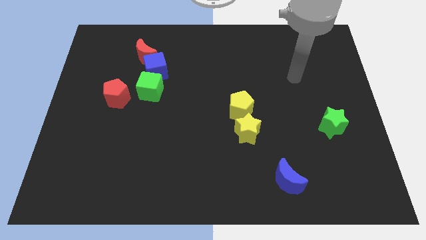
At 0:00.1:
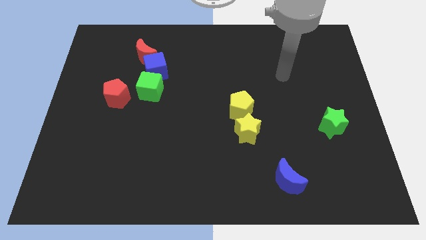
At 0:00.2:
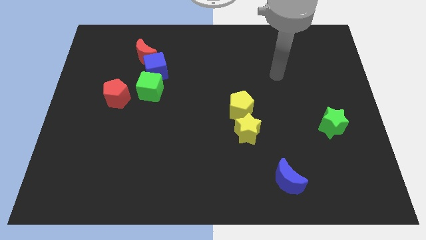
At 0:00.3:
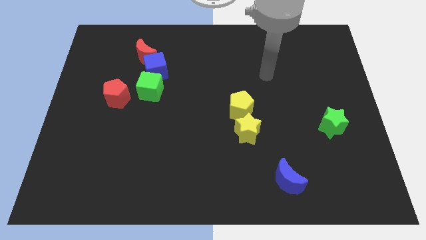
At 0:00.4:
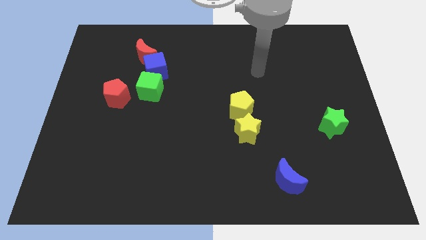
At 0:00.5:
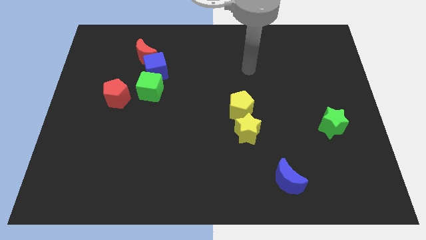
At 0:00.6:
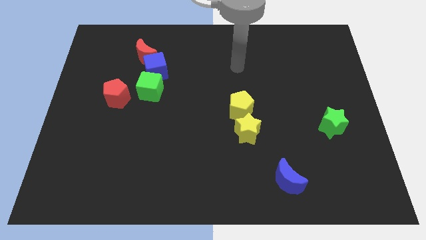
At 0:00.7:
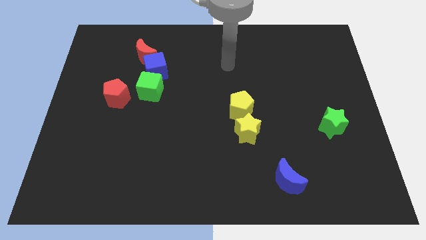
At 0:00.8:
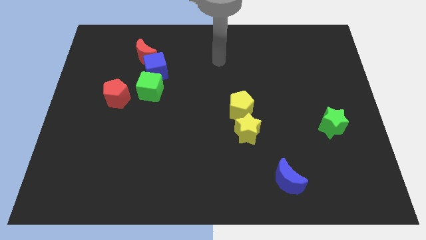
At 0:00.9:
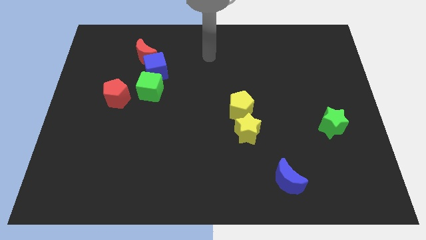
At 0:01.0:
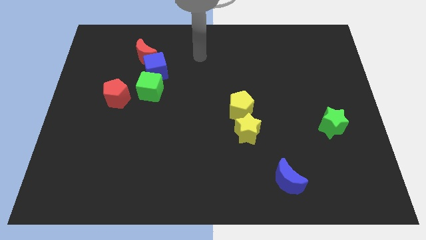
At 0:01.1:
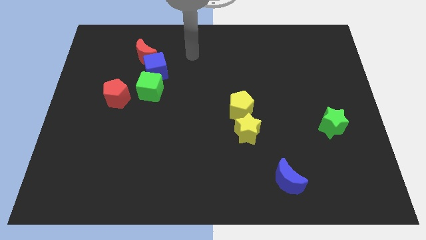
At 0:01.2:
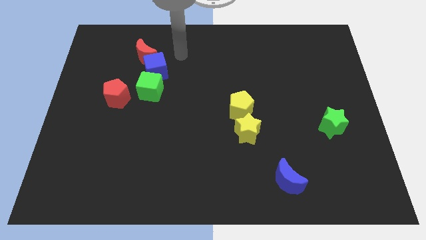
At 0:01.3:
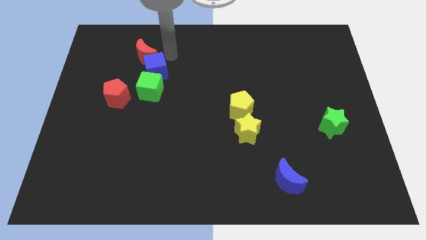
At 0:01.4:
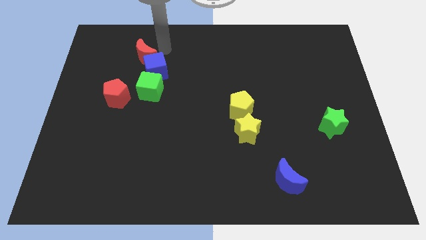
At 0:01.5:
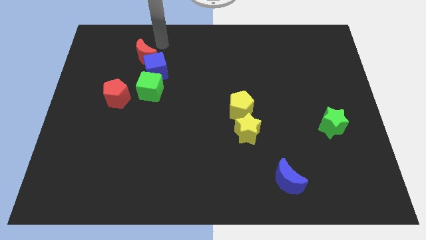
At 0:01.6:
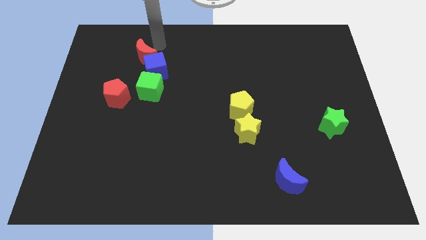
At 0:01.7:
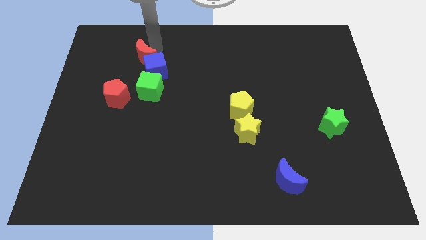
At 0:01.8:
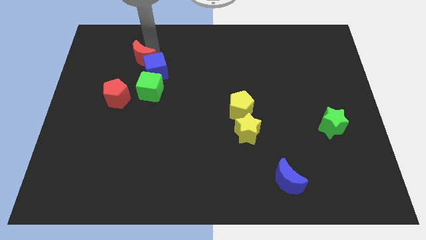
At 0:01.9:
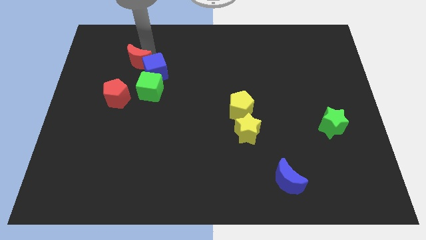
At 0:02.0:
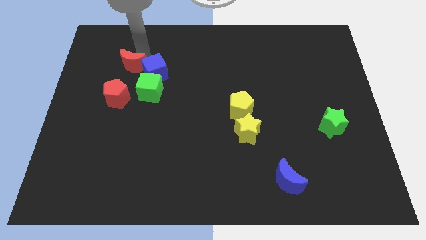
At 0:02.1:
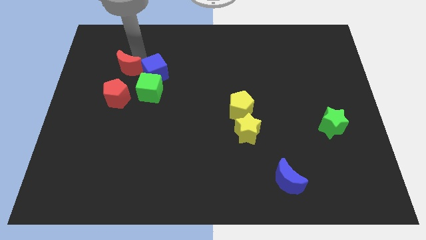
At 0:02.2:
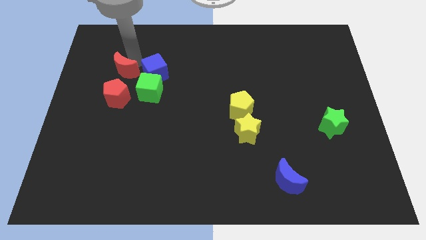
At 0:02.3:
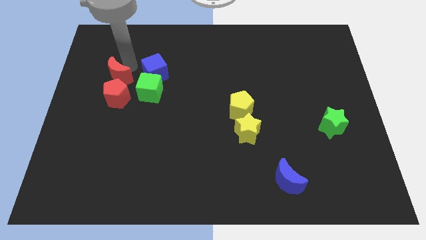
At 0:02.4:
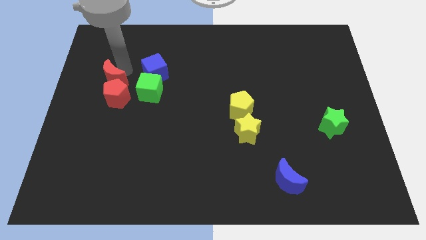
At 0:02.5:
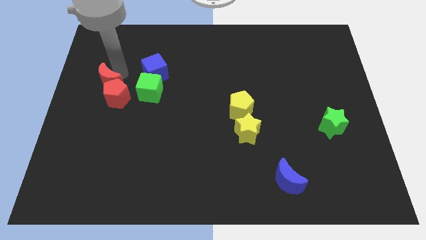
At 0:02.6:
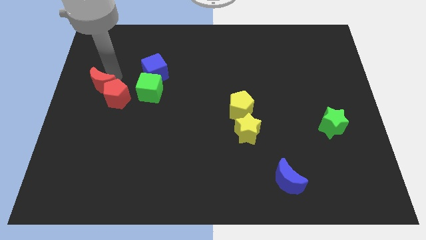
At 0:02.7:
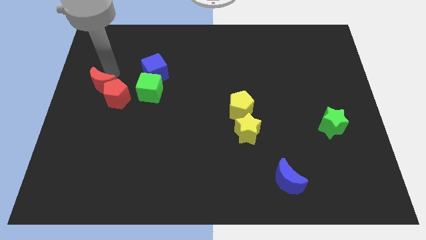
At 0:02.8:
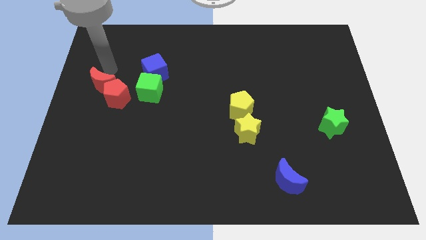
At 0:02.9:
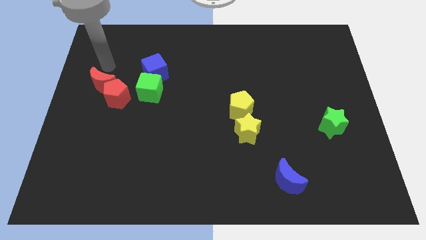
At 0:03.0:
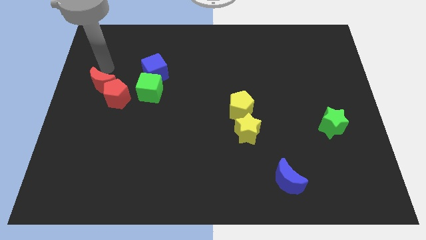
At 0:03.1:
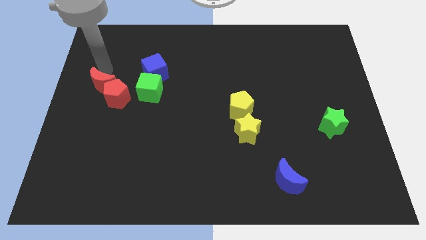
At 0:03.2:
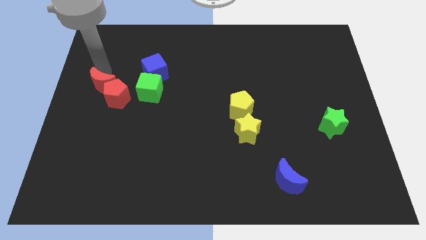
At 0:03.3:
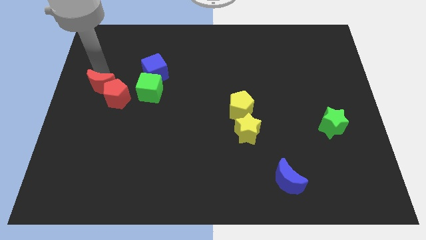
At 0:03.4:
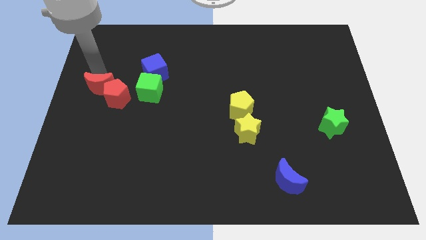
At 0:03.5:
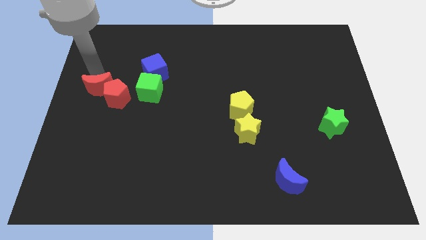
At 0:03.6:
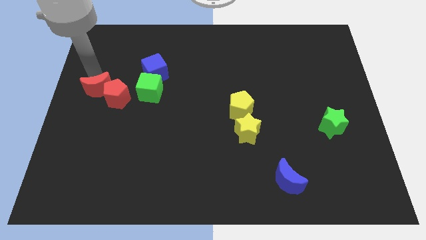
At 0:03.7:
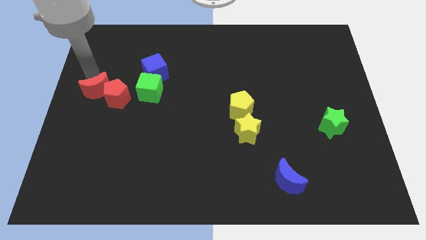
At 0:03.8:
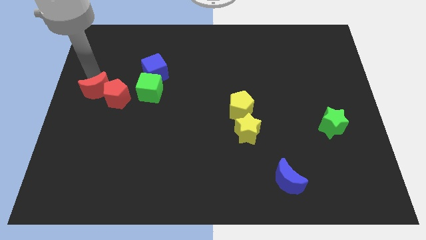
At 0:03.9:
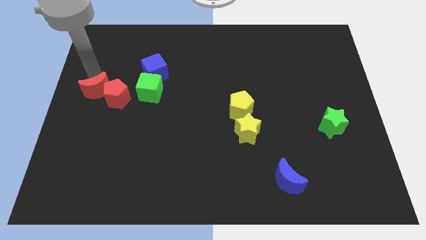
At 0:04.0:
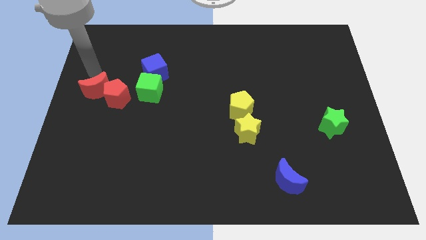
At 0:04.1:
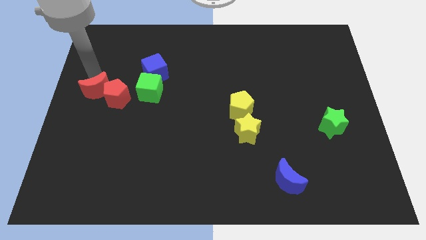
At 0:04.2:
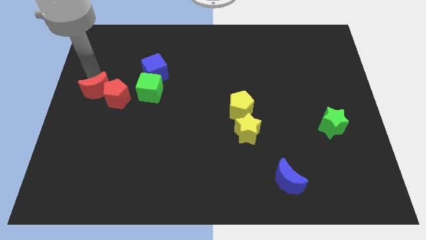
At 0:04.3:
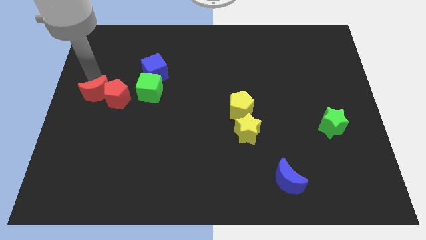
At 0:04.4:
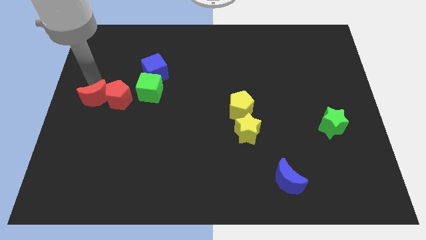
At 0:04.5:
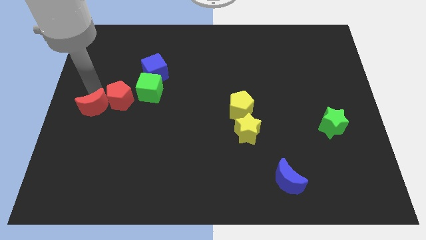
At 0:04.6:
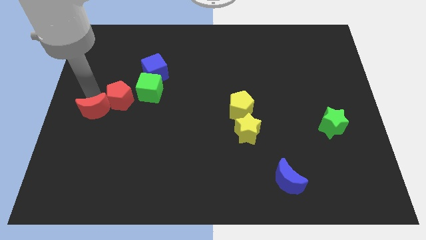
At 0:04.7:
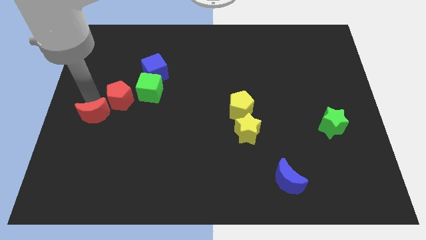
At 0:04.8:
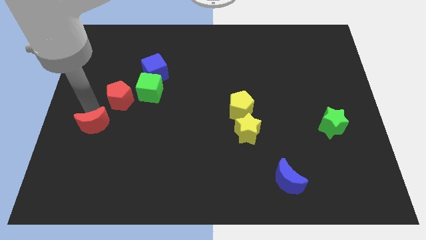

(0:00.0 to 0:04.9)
put the red moon to the bottom of the red pentagon

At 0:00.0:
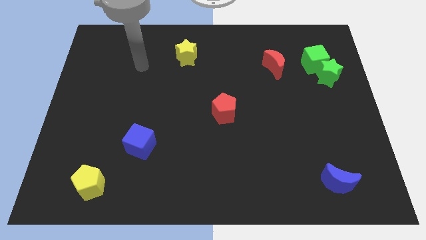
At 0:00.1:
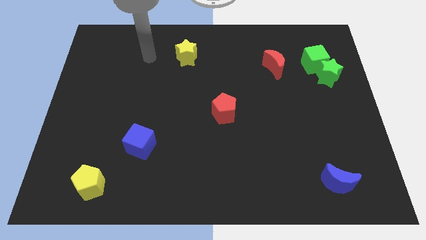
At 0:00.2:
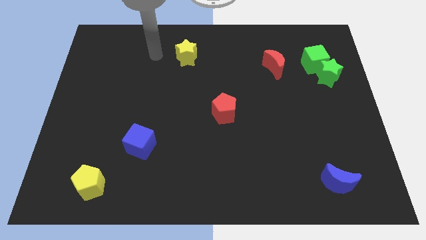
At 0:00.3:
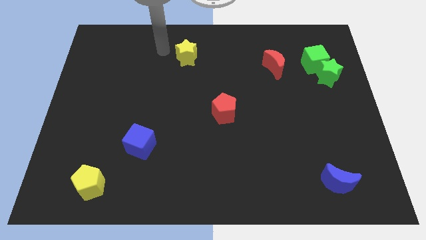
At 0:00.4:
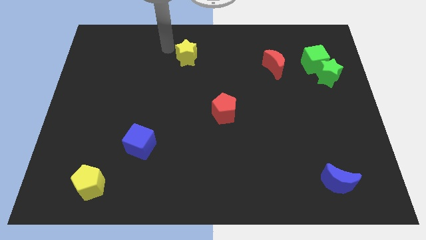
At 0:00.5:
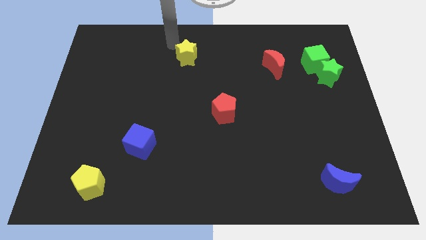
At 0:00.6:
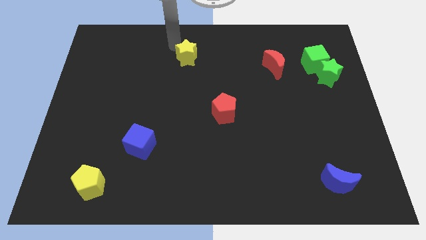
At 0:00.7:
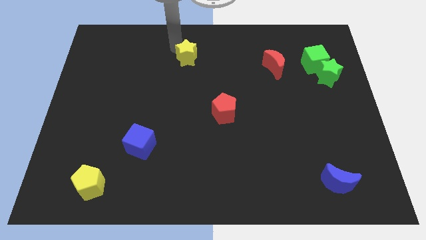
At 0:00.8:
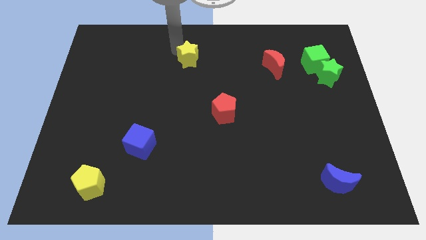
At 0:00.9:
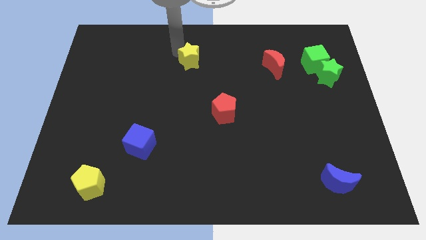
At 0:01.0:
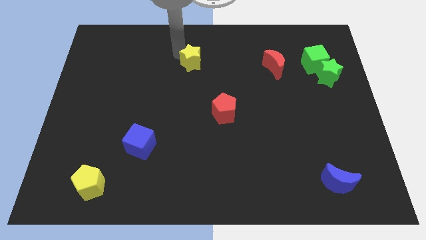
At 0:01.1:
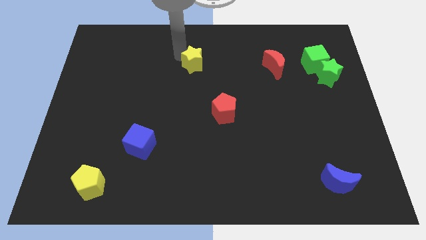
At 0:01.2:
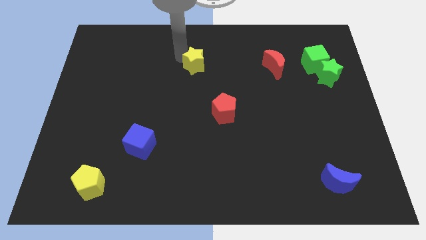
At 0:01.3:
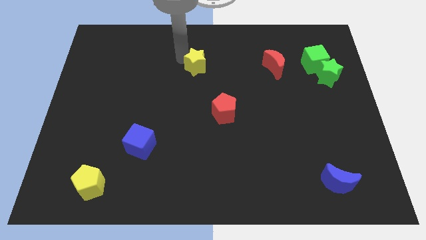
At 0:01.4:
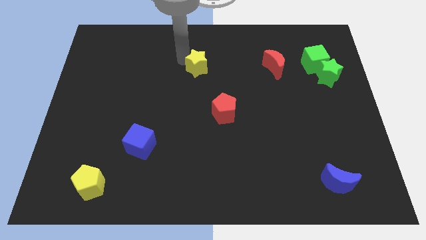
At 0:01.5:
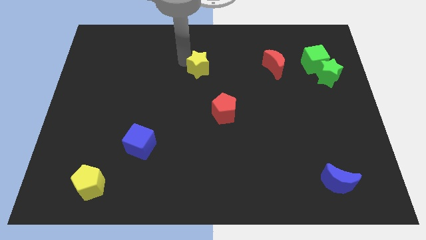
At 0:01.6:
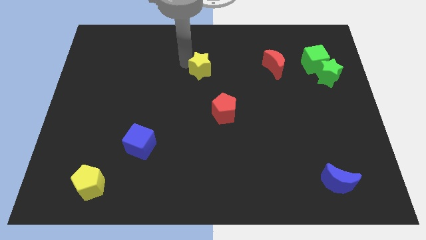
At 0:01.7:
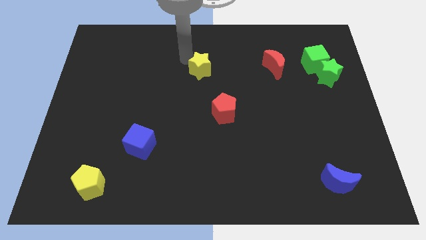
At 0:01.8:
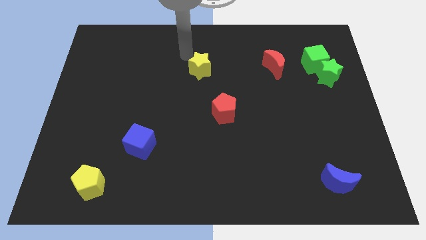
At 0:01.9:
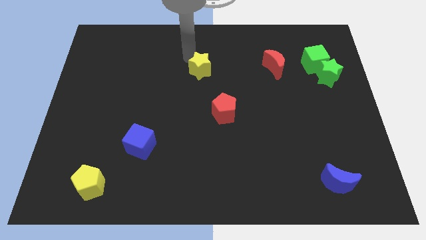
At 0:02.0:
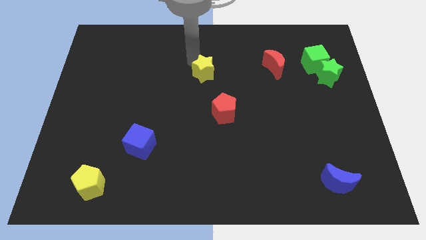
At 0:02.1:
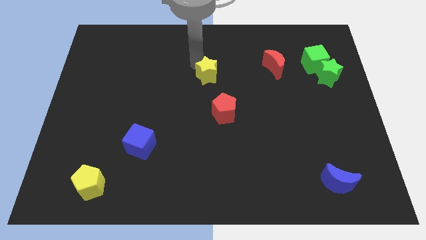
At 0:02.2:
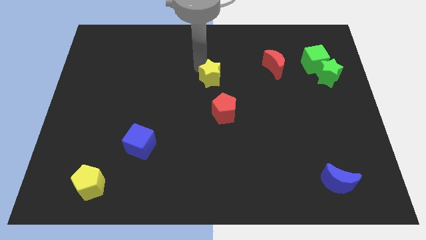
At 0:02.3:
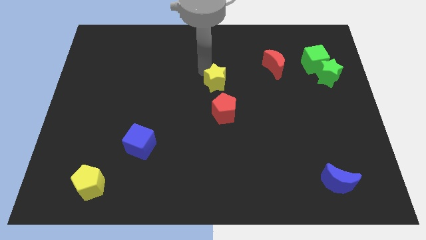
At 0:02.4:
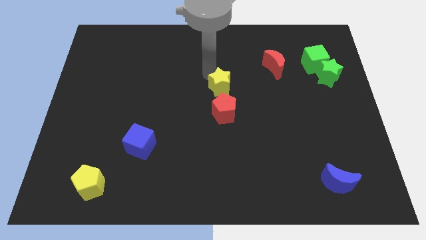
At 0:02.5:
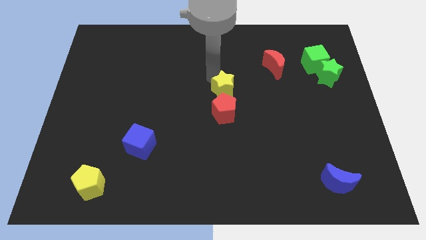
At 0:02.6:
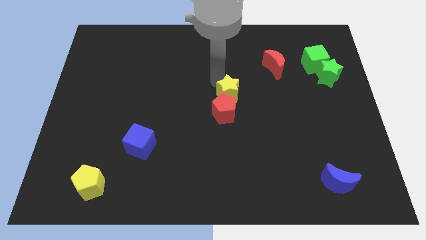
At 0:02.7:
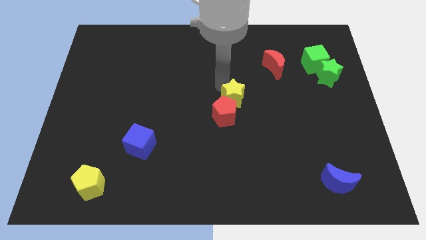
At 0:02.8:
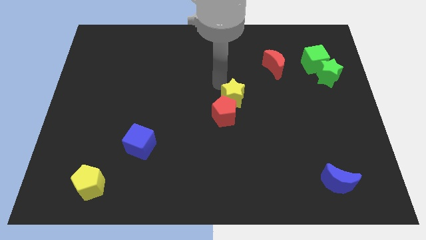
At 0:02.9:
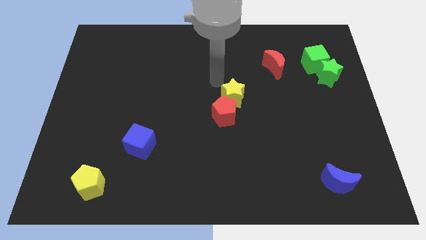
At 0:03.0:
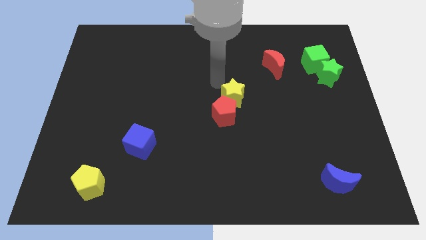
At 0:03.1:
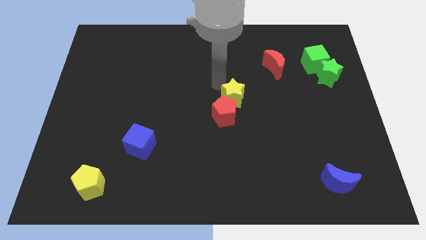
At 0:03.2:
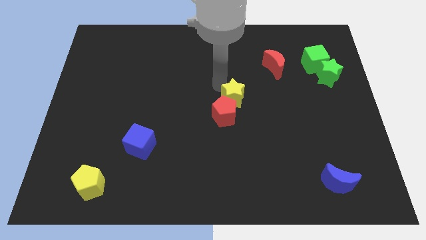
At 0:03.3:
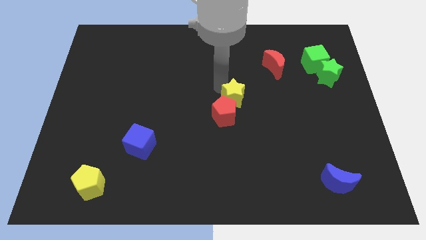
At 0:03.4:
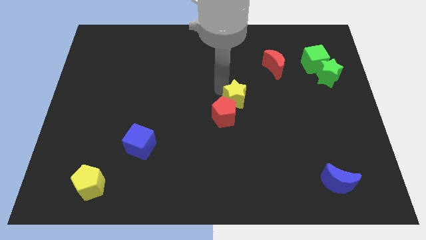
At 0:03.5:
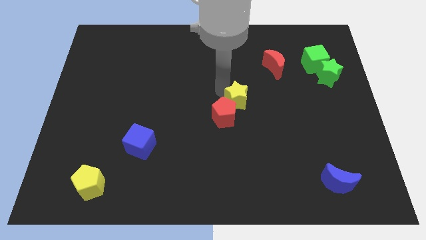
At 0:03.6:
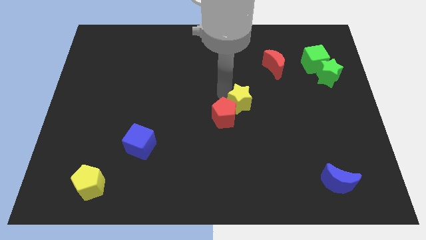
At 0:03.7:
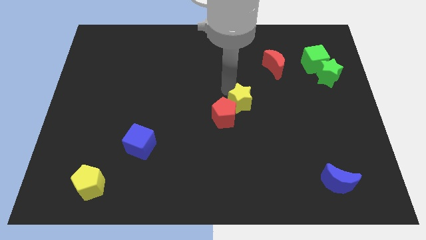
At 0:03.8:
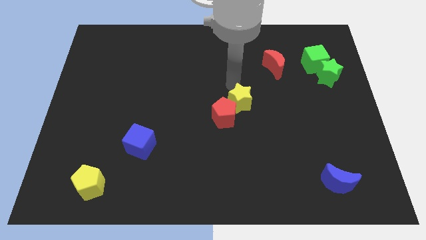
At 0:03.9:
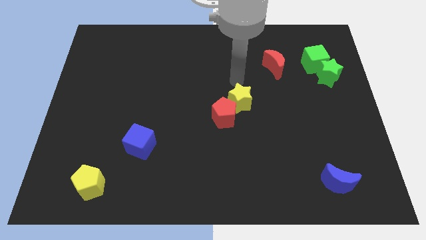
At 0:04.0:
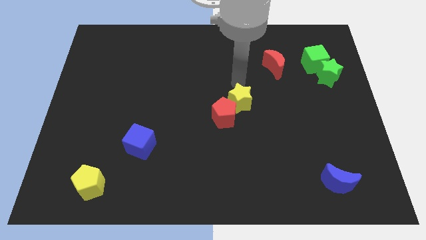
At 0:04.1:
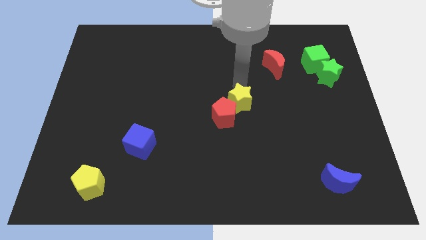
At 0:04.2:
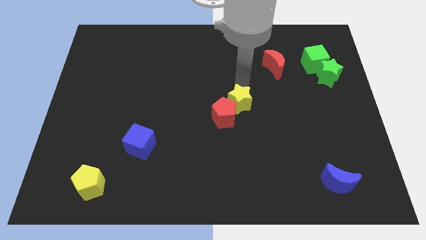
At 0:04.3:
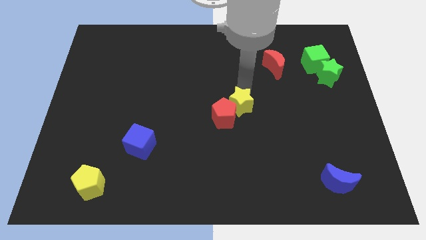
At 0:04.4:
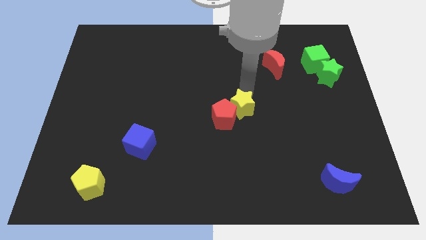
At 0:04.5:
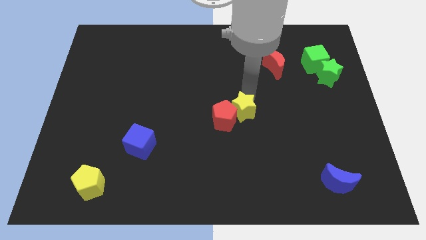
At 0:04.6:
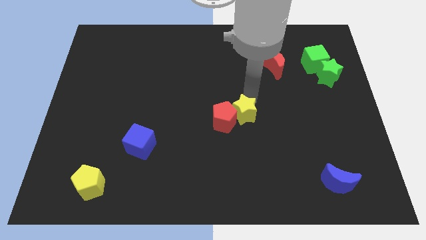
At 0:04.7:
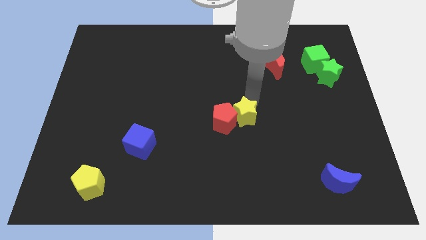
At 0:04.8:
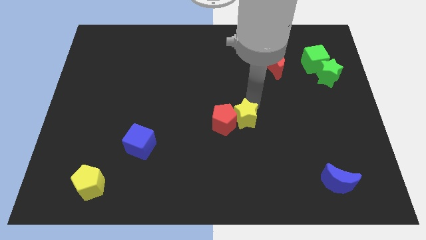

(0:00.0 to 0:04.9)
push the yellow star diagonally down and to the right of the red pentagon
